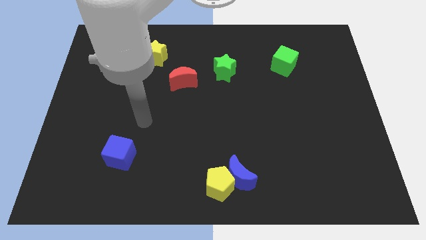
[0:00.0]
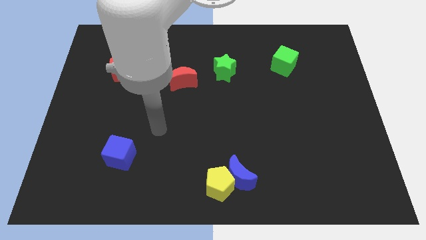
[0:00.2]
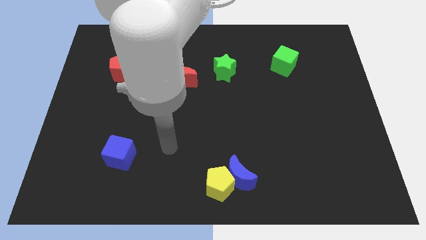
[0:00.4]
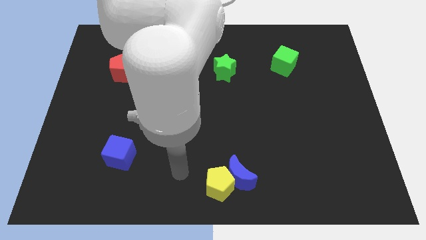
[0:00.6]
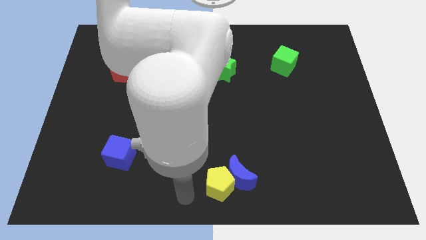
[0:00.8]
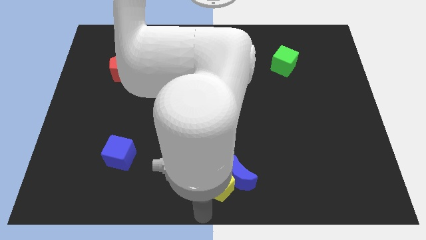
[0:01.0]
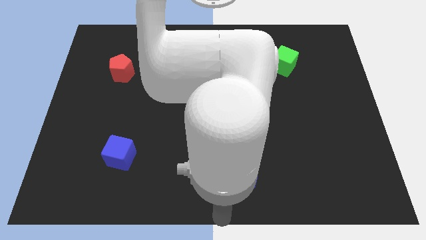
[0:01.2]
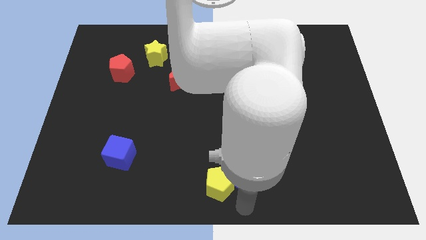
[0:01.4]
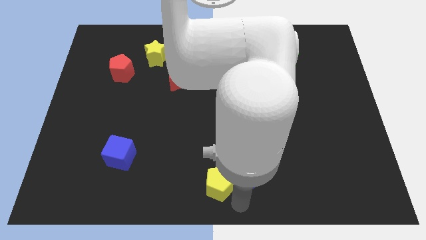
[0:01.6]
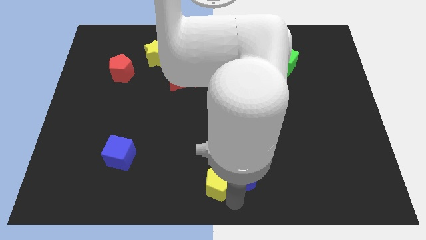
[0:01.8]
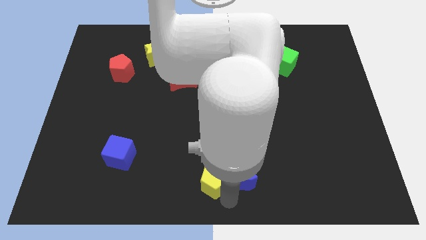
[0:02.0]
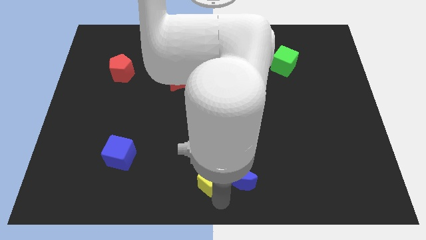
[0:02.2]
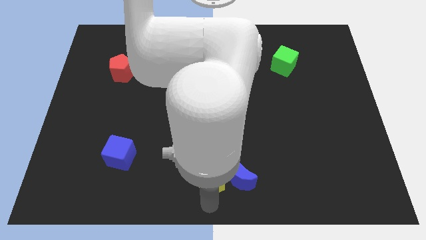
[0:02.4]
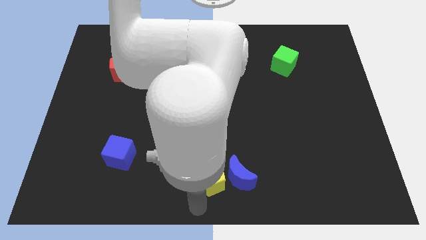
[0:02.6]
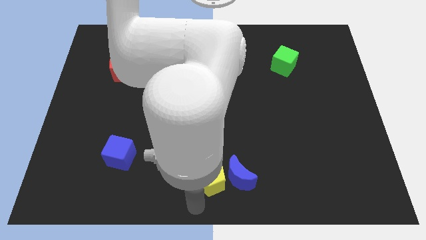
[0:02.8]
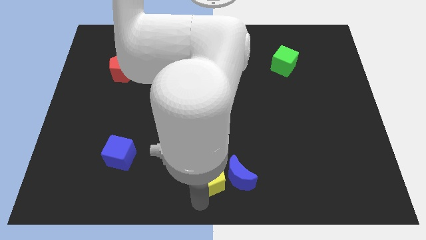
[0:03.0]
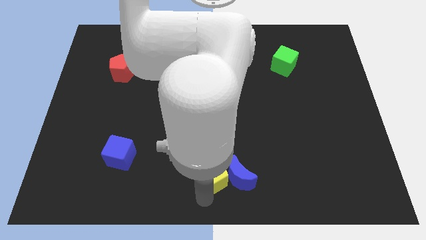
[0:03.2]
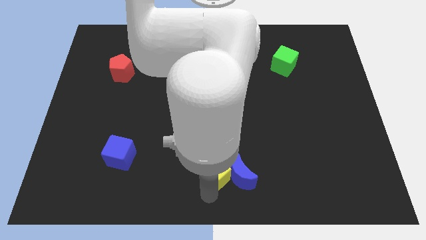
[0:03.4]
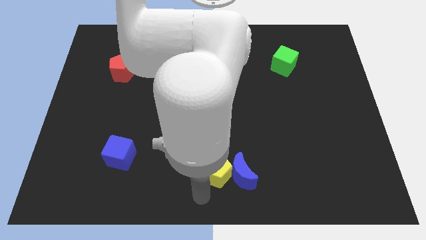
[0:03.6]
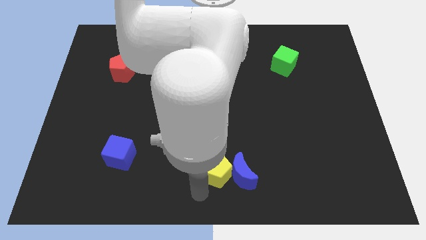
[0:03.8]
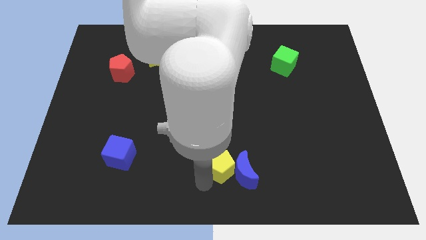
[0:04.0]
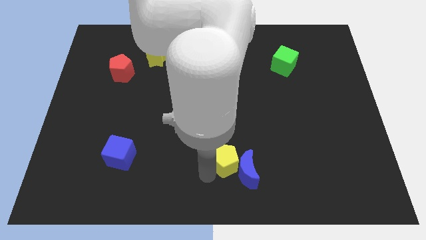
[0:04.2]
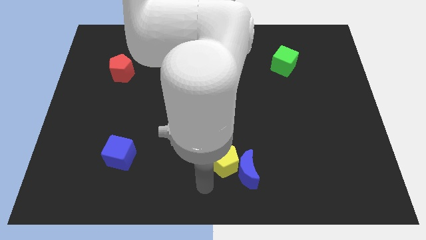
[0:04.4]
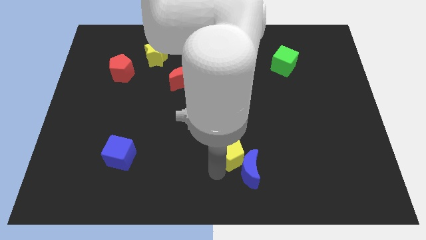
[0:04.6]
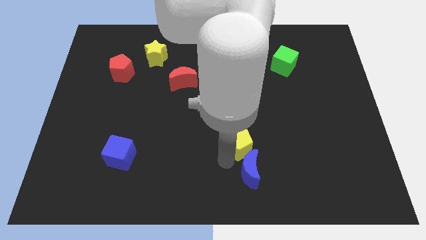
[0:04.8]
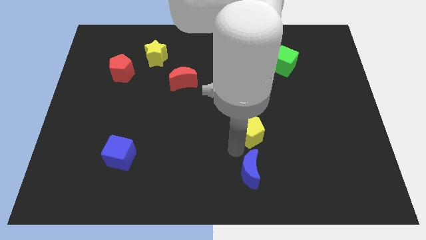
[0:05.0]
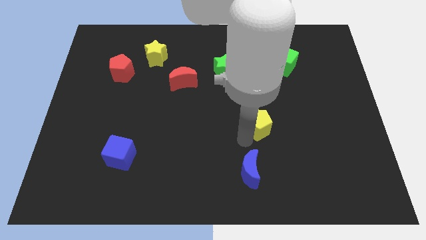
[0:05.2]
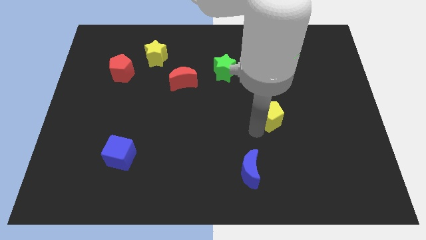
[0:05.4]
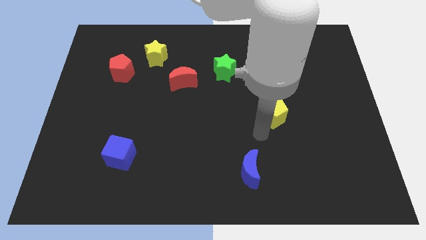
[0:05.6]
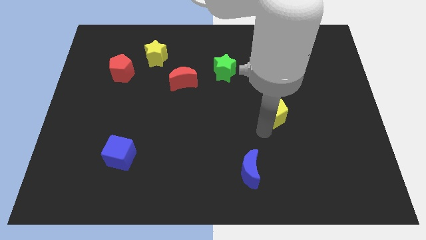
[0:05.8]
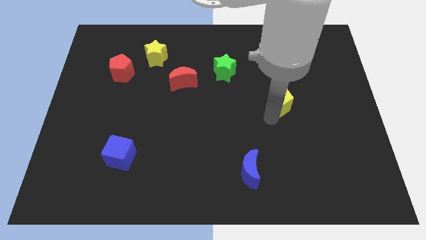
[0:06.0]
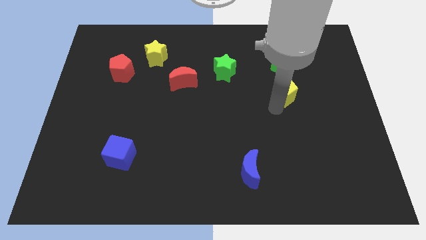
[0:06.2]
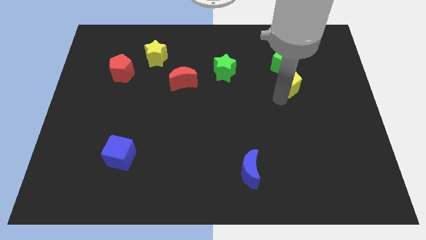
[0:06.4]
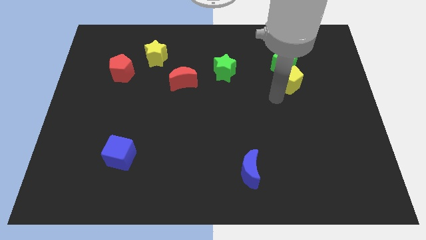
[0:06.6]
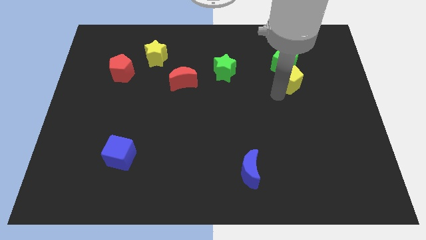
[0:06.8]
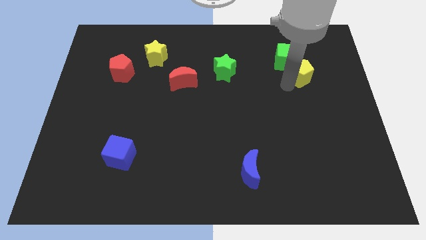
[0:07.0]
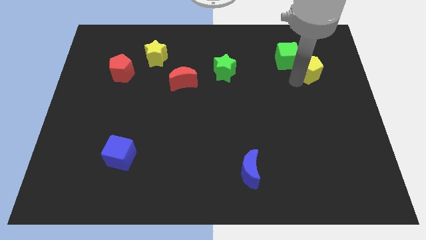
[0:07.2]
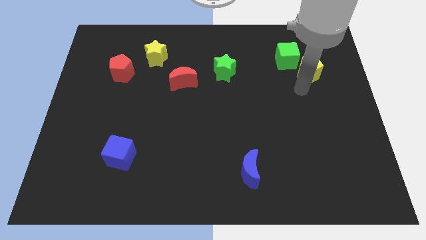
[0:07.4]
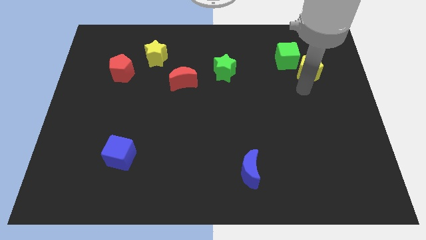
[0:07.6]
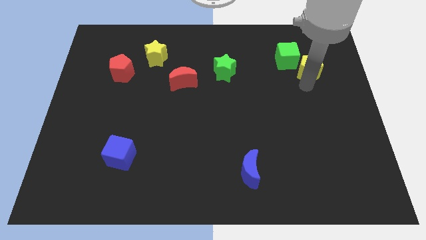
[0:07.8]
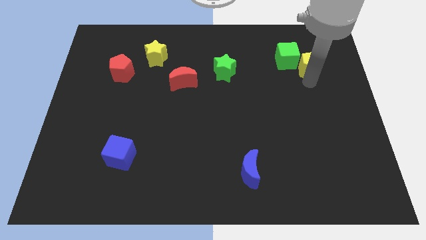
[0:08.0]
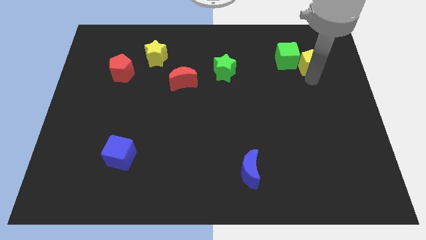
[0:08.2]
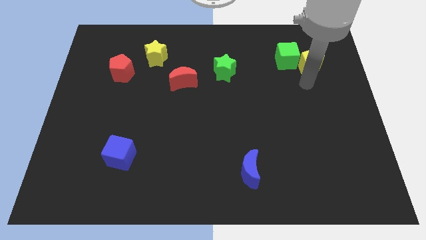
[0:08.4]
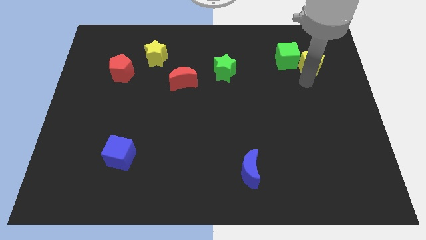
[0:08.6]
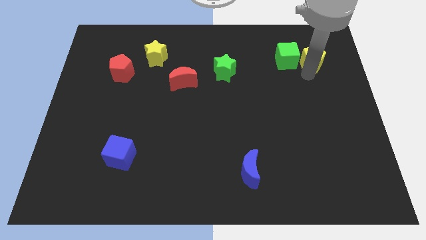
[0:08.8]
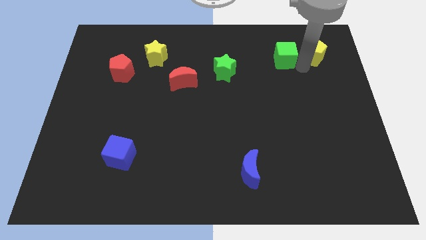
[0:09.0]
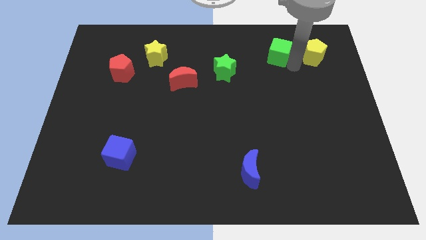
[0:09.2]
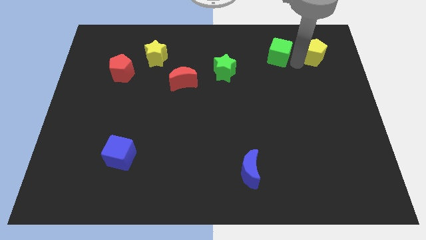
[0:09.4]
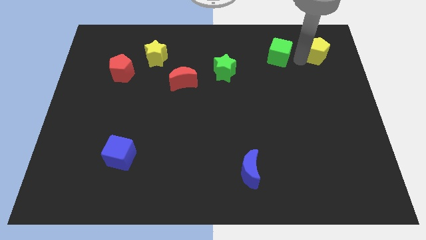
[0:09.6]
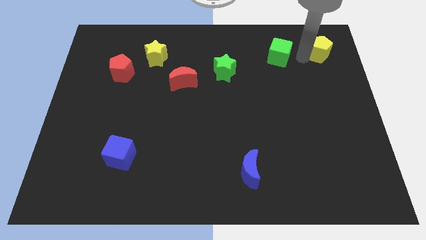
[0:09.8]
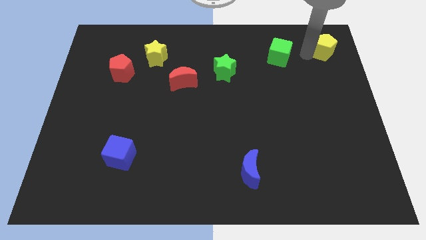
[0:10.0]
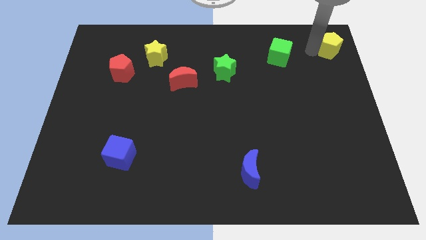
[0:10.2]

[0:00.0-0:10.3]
move the yellow pentagon to the top right

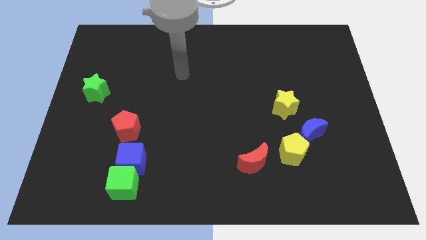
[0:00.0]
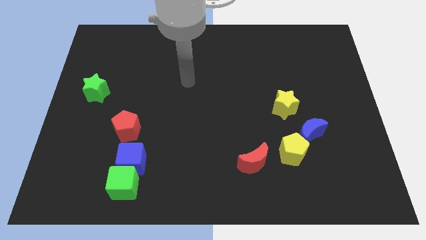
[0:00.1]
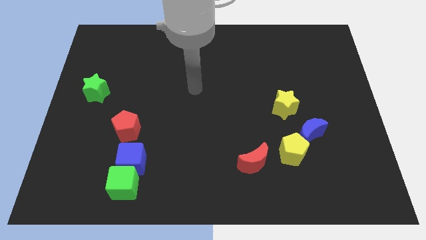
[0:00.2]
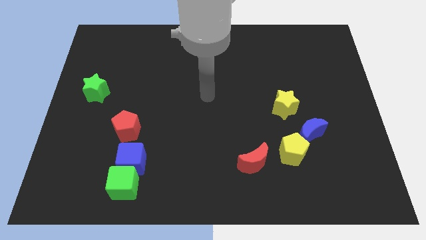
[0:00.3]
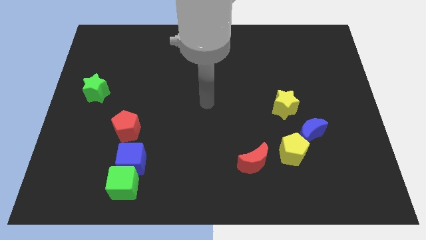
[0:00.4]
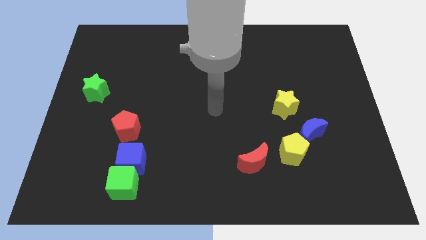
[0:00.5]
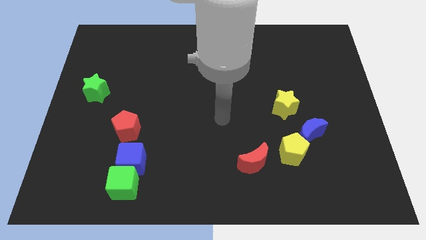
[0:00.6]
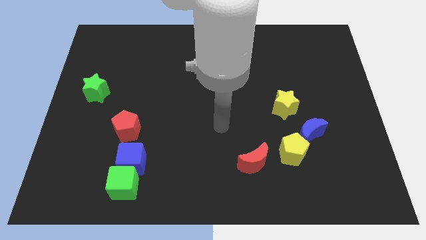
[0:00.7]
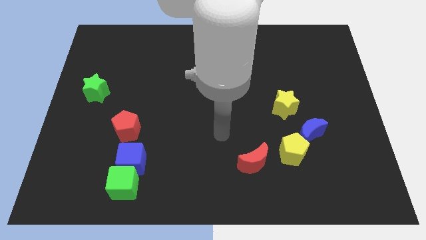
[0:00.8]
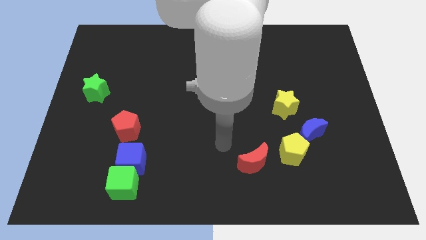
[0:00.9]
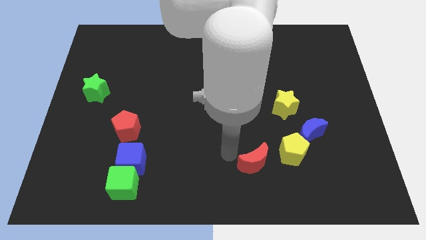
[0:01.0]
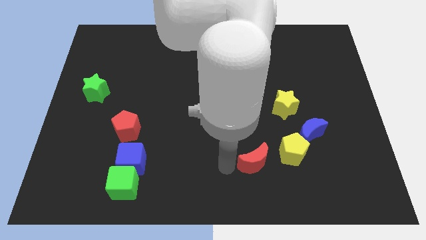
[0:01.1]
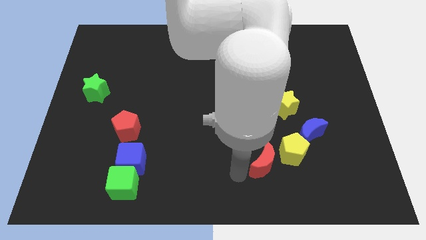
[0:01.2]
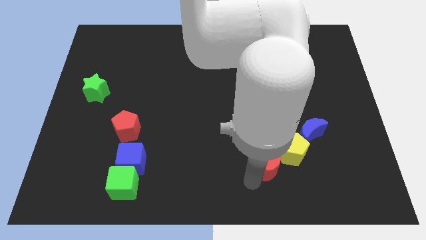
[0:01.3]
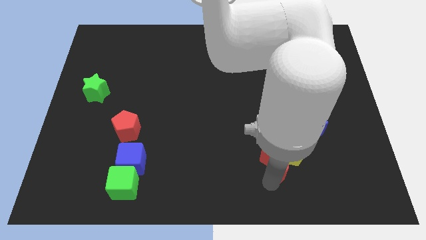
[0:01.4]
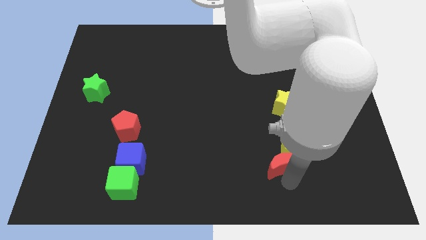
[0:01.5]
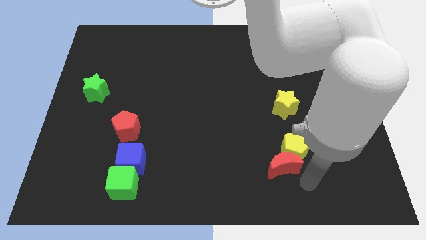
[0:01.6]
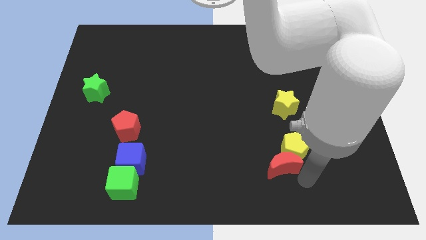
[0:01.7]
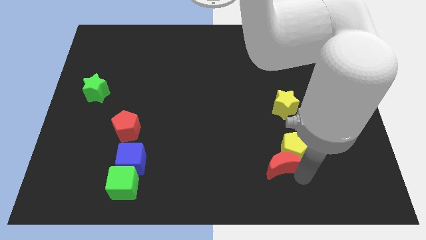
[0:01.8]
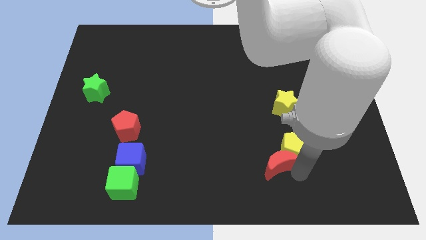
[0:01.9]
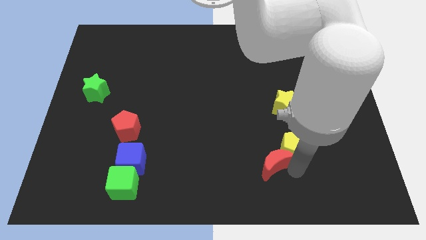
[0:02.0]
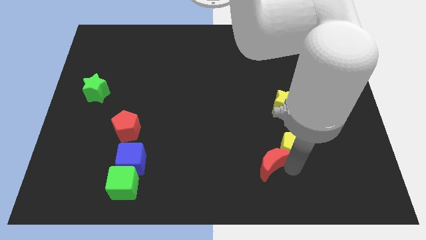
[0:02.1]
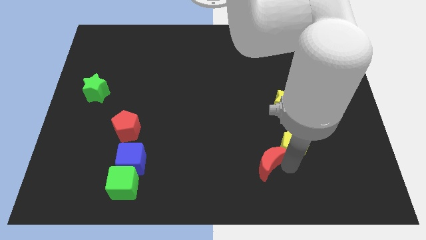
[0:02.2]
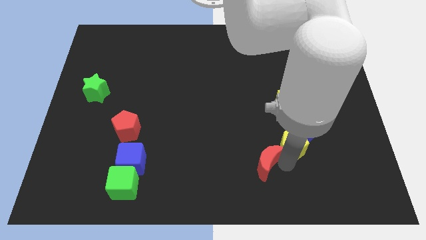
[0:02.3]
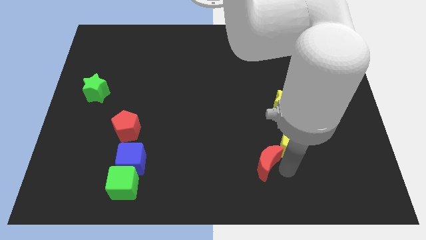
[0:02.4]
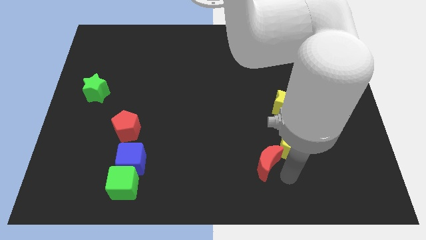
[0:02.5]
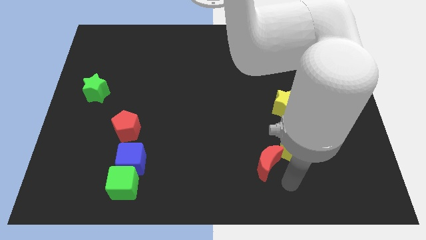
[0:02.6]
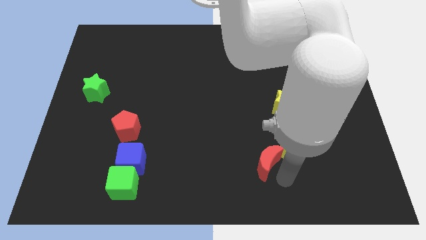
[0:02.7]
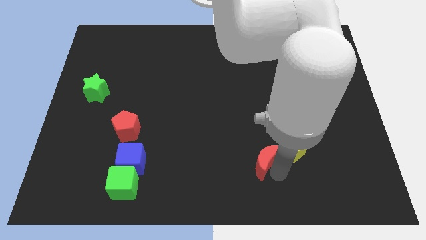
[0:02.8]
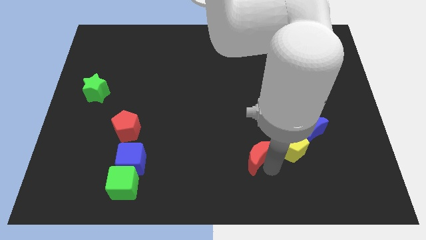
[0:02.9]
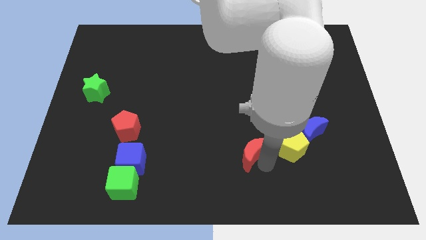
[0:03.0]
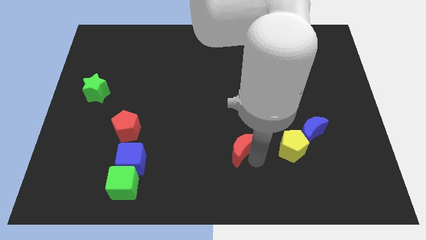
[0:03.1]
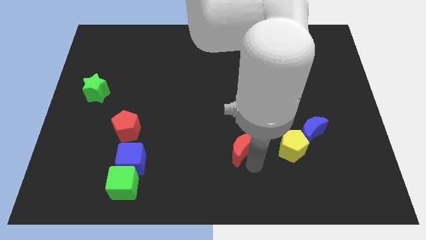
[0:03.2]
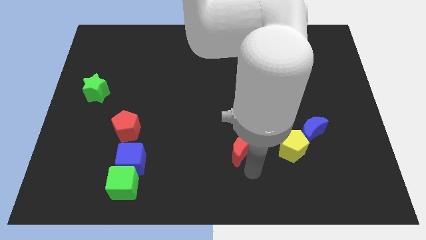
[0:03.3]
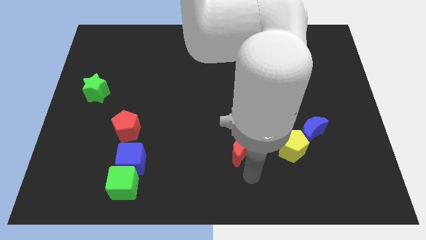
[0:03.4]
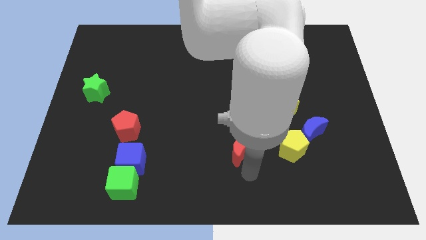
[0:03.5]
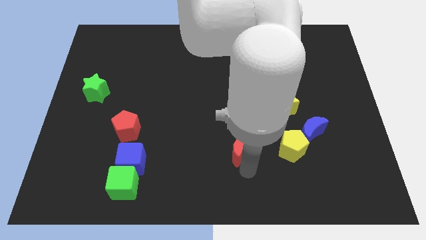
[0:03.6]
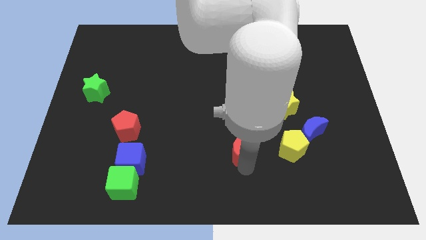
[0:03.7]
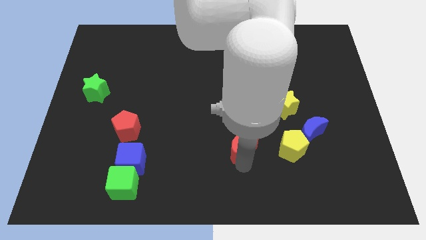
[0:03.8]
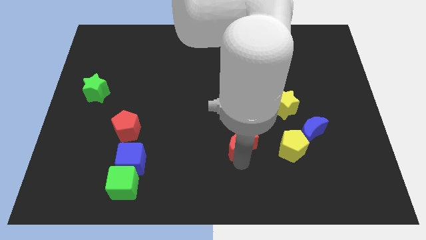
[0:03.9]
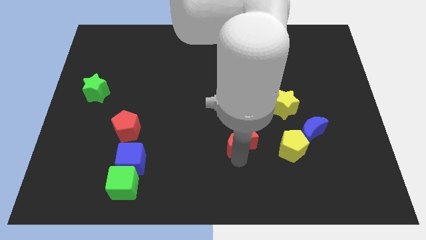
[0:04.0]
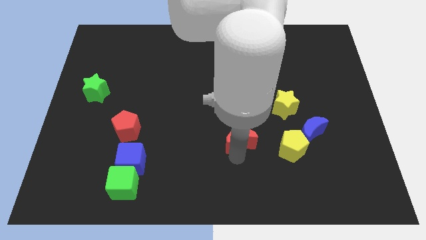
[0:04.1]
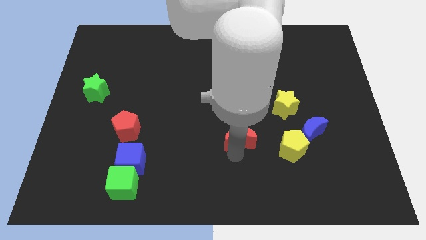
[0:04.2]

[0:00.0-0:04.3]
move the red moon to the center of the board
